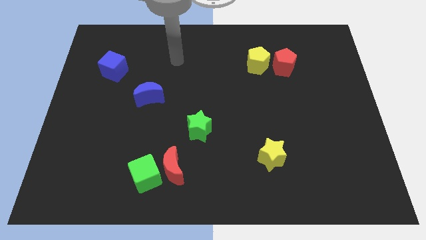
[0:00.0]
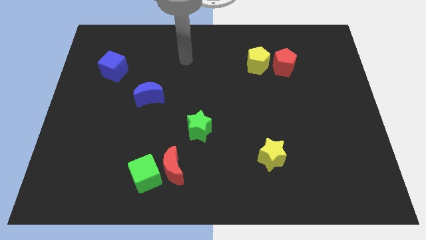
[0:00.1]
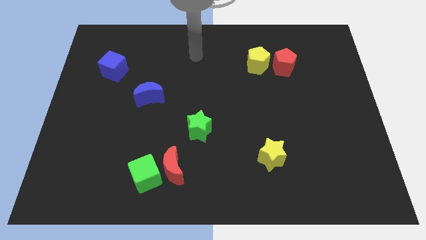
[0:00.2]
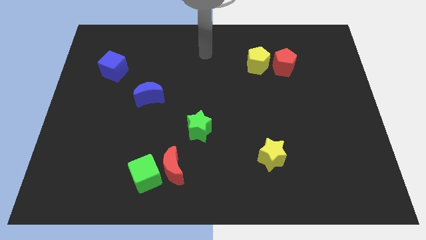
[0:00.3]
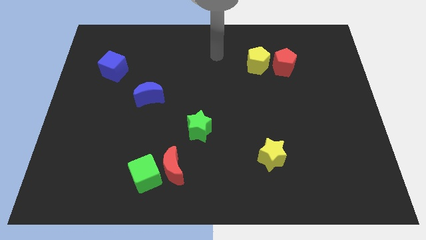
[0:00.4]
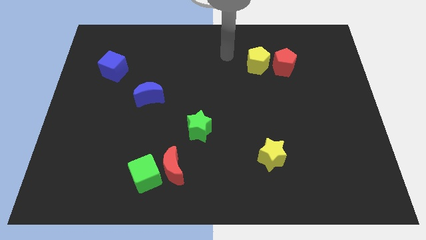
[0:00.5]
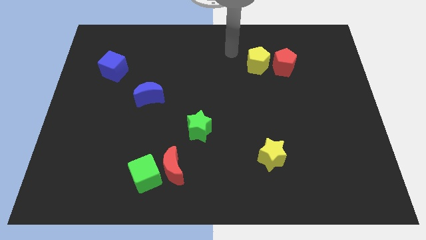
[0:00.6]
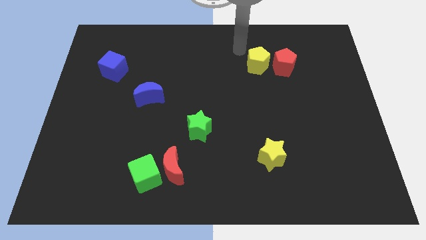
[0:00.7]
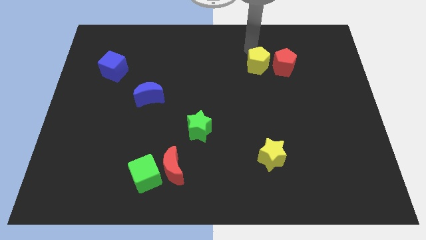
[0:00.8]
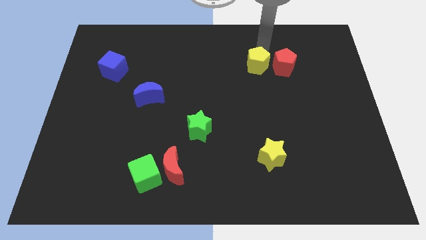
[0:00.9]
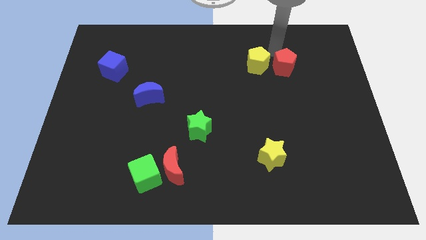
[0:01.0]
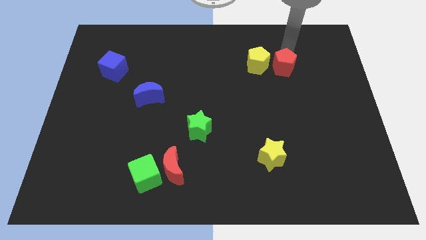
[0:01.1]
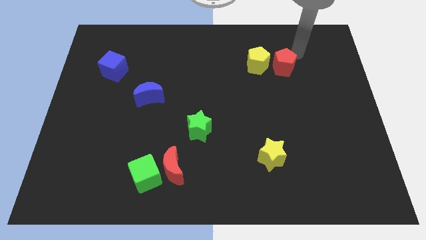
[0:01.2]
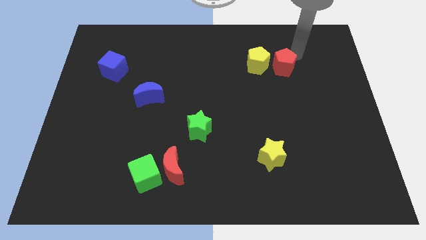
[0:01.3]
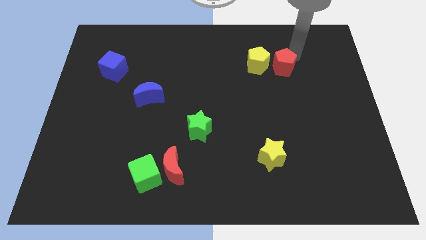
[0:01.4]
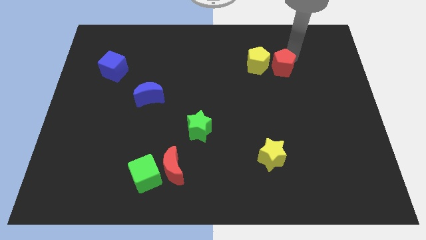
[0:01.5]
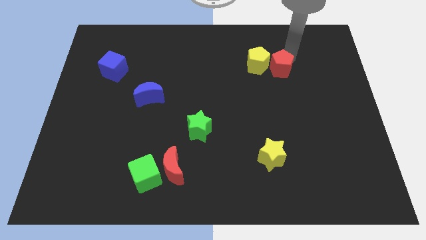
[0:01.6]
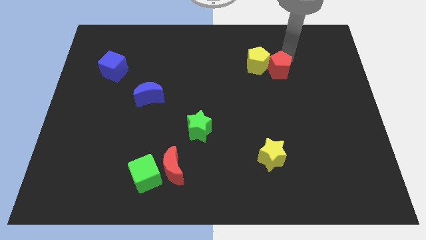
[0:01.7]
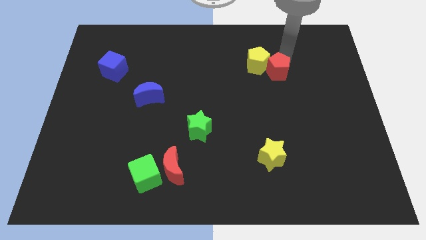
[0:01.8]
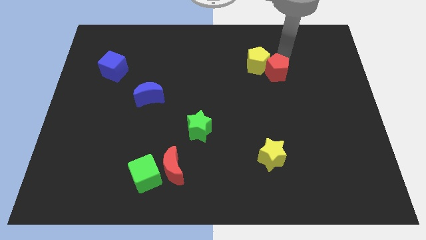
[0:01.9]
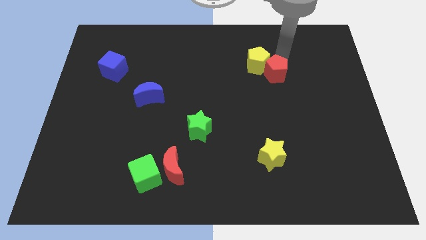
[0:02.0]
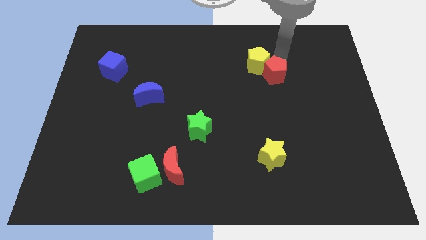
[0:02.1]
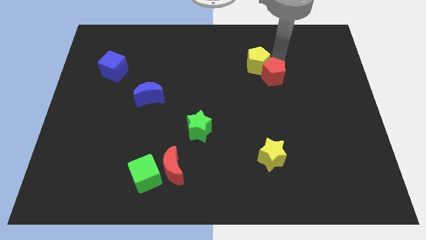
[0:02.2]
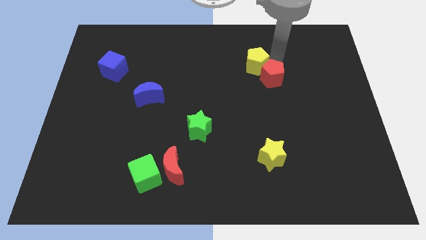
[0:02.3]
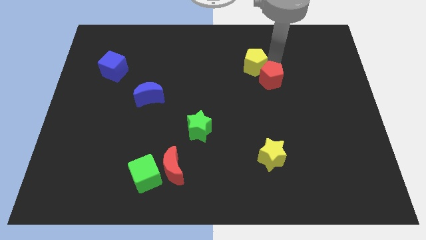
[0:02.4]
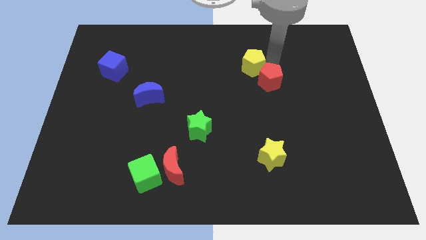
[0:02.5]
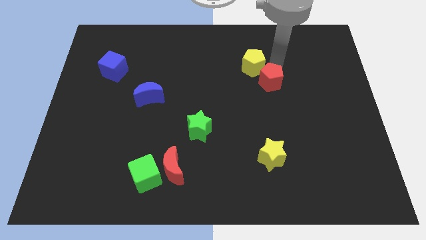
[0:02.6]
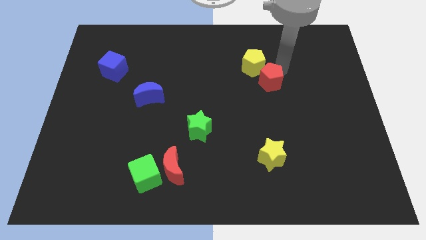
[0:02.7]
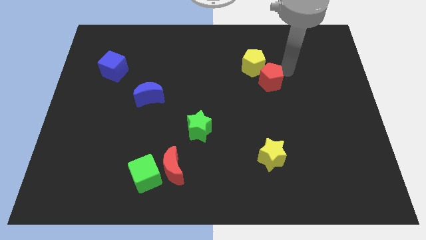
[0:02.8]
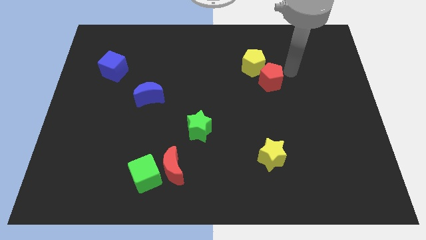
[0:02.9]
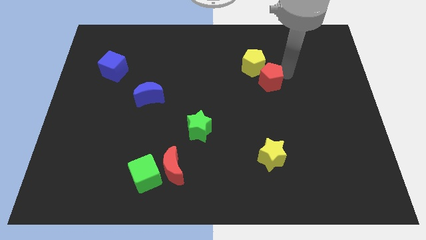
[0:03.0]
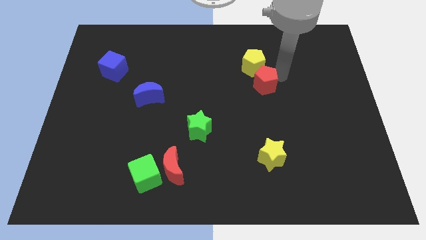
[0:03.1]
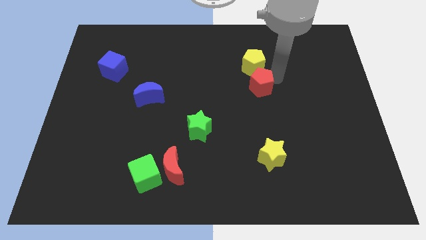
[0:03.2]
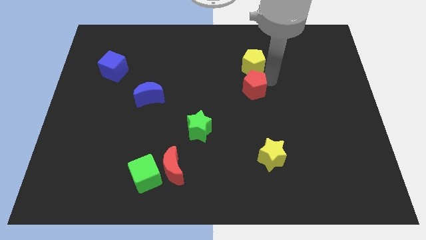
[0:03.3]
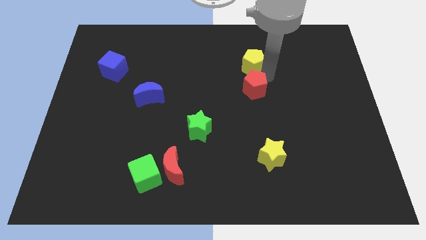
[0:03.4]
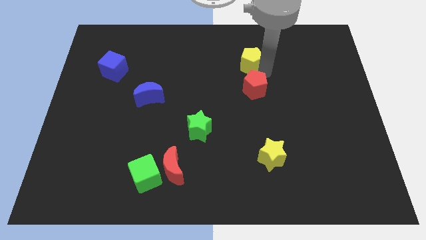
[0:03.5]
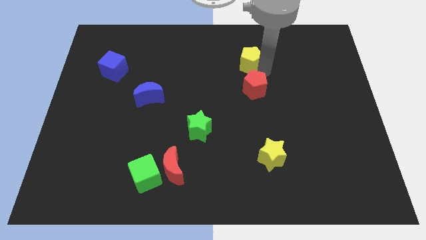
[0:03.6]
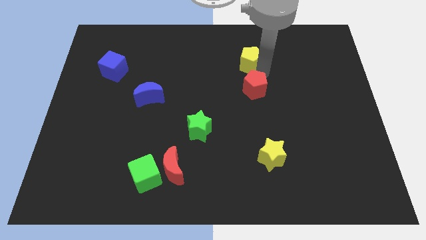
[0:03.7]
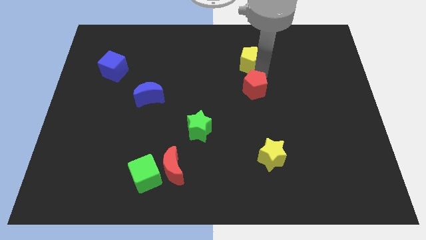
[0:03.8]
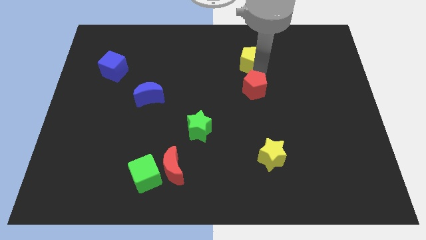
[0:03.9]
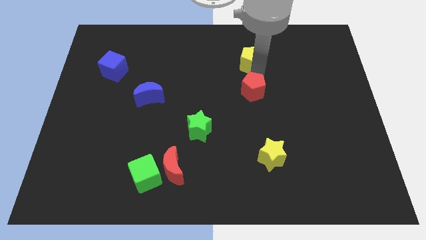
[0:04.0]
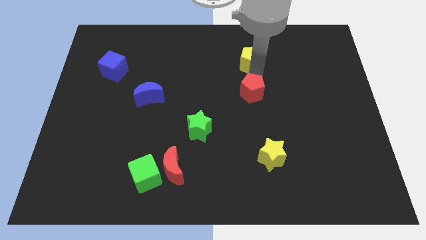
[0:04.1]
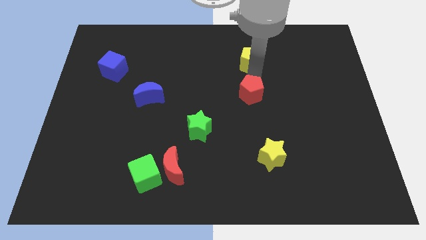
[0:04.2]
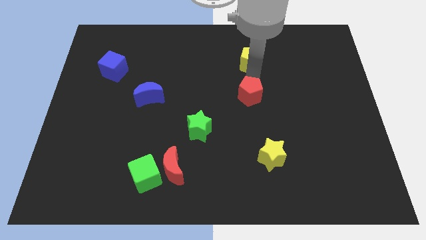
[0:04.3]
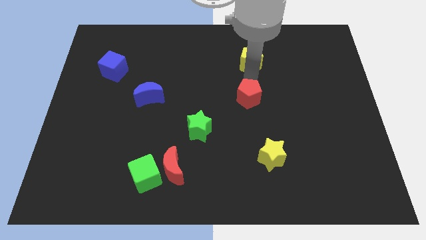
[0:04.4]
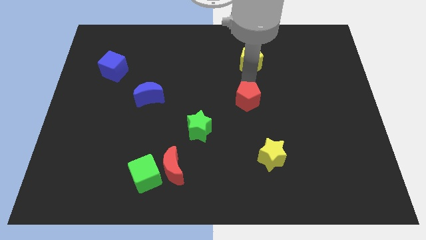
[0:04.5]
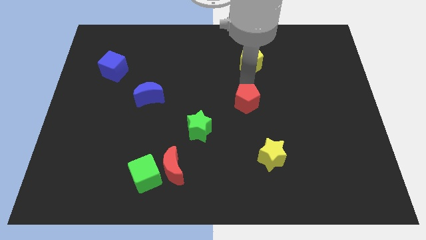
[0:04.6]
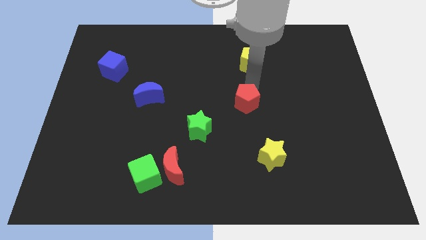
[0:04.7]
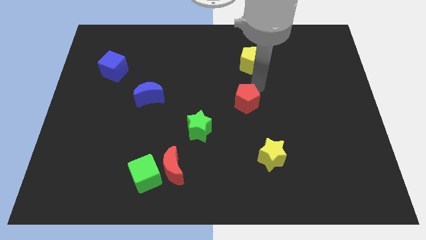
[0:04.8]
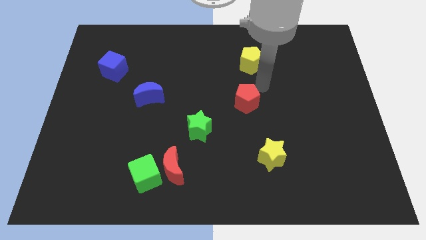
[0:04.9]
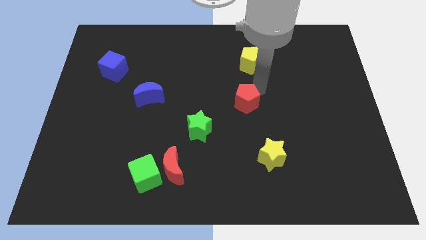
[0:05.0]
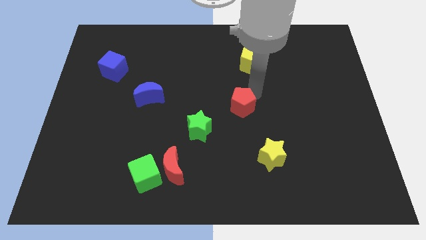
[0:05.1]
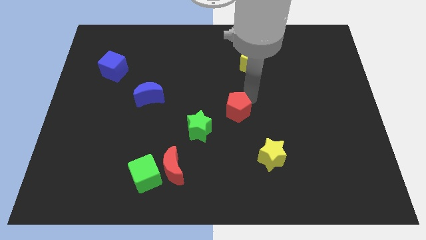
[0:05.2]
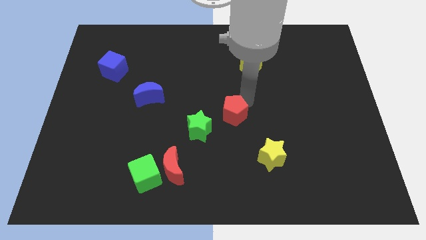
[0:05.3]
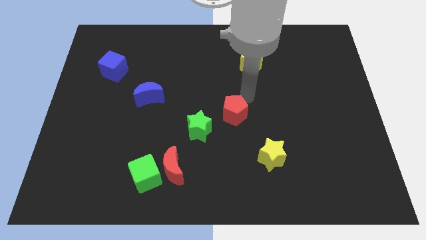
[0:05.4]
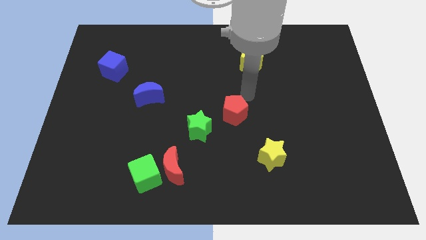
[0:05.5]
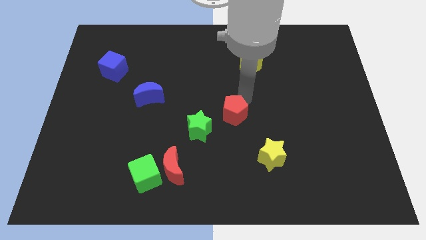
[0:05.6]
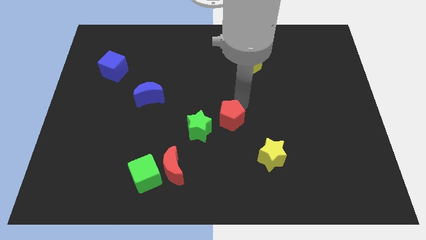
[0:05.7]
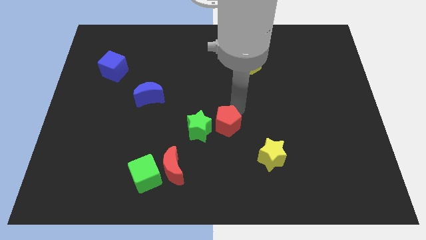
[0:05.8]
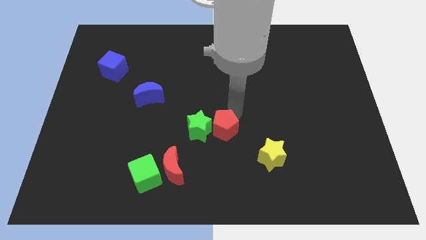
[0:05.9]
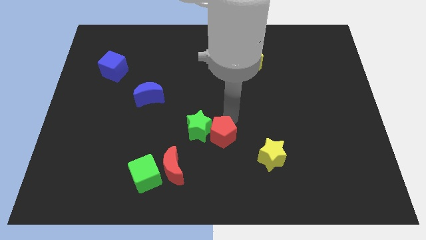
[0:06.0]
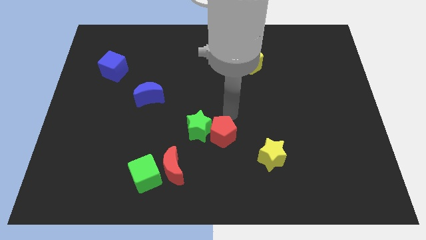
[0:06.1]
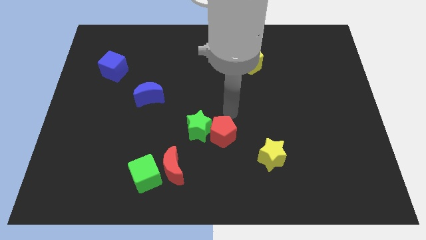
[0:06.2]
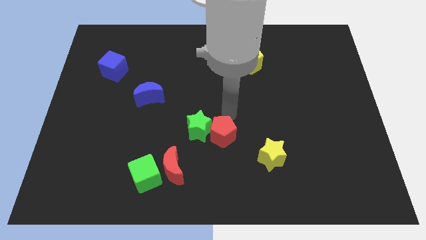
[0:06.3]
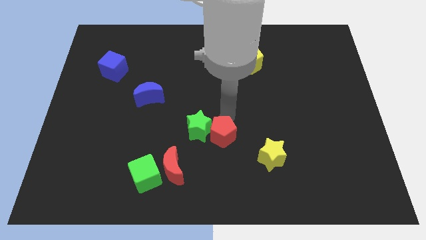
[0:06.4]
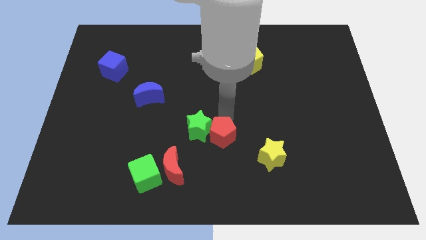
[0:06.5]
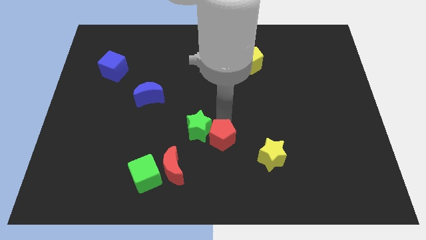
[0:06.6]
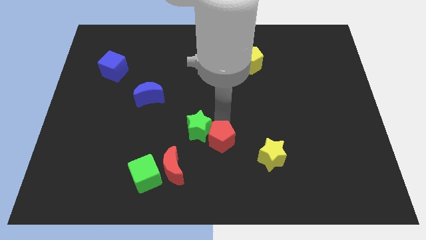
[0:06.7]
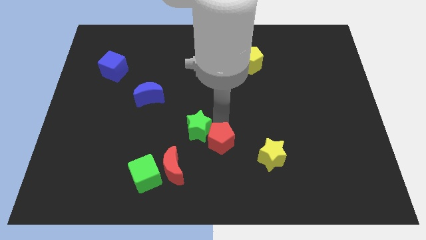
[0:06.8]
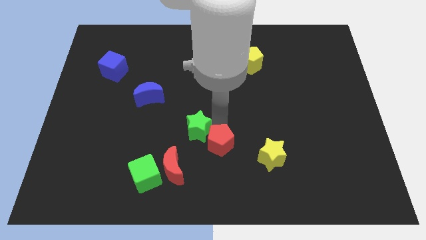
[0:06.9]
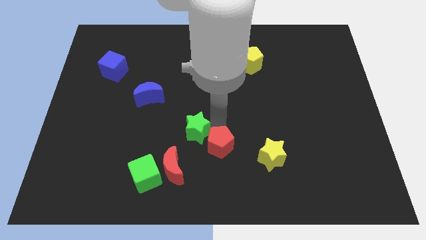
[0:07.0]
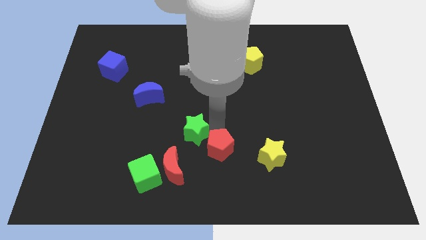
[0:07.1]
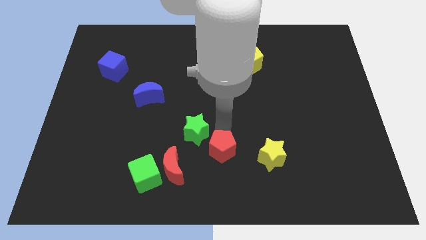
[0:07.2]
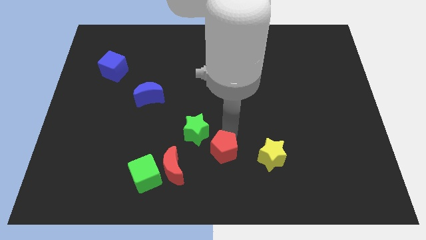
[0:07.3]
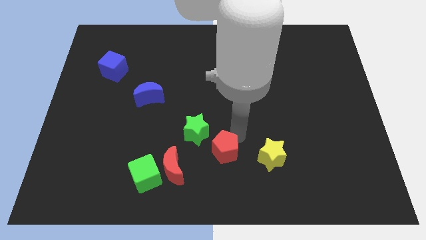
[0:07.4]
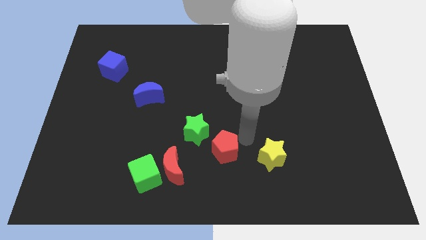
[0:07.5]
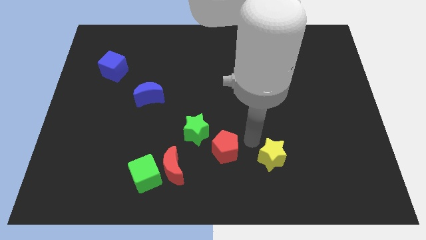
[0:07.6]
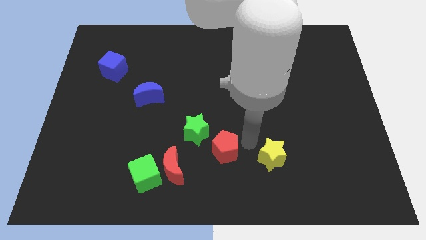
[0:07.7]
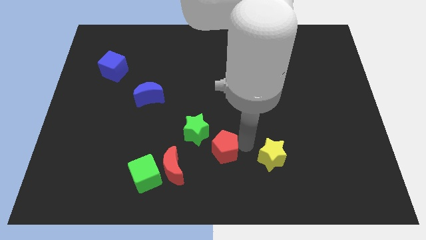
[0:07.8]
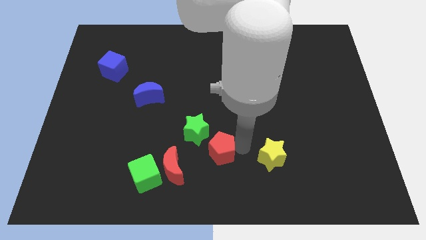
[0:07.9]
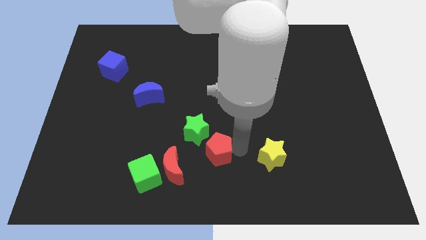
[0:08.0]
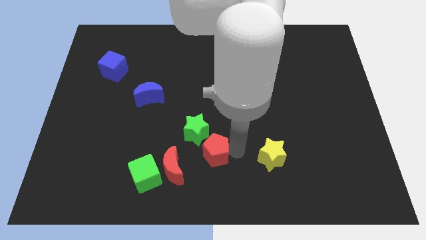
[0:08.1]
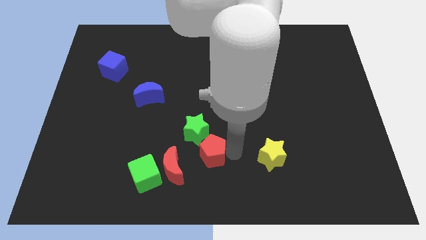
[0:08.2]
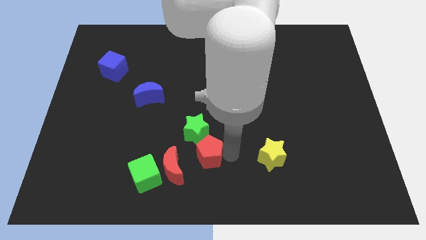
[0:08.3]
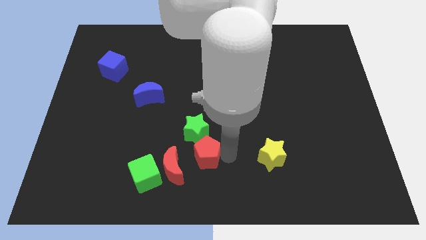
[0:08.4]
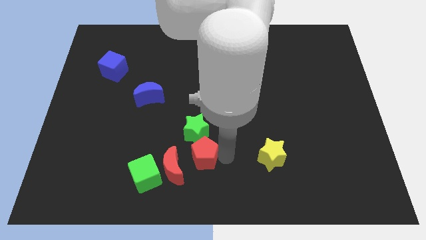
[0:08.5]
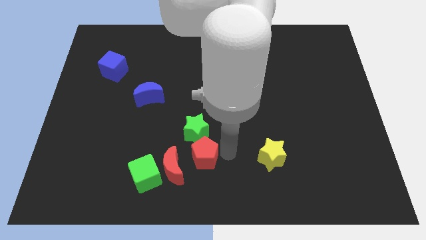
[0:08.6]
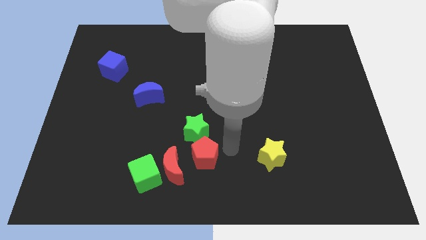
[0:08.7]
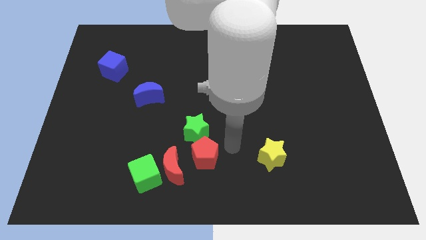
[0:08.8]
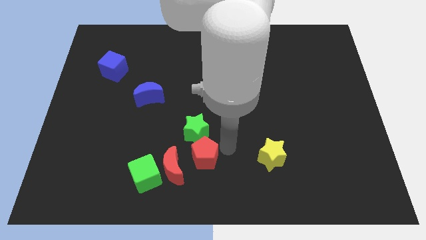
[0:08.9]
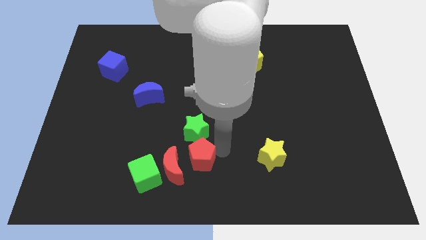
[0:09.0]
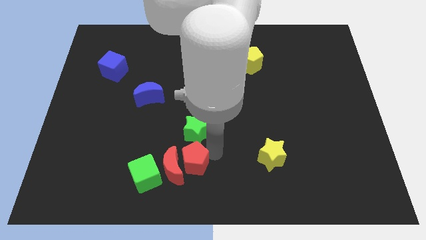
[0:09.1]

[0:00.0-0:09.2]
slide the red pentagon close to the red moon
